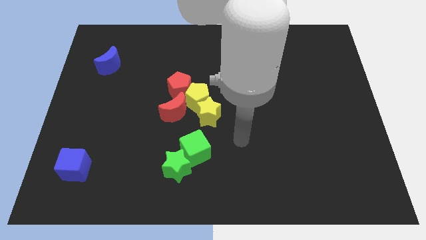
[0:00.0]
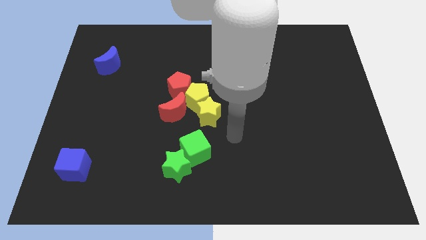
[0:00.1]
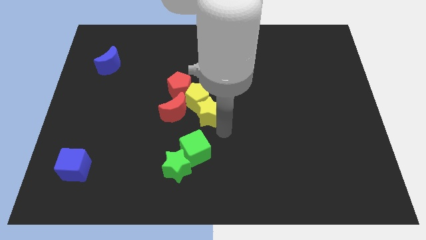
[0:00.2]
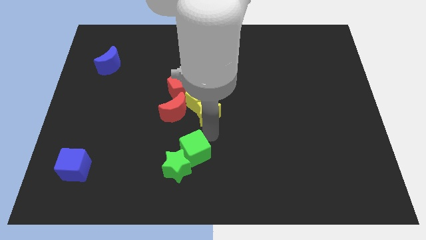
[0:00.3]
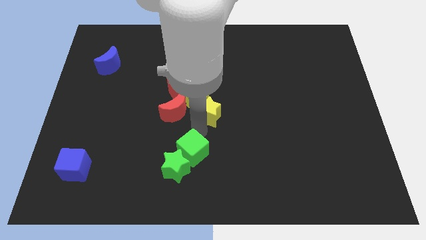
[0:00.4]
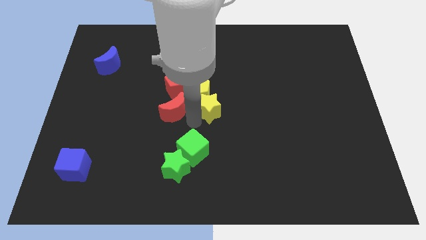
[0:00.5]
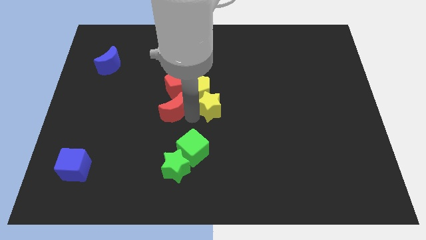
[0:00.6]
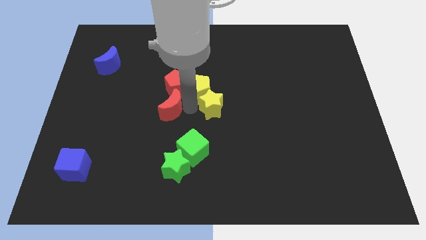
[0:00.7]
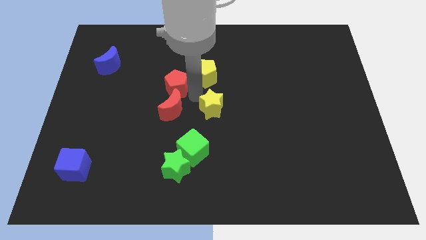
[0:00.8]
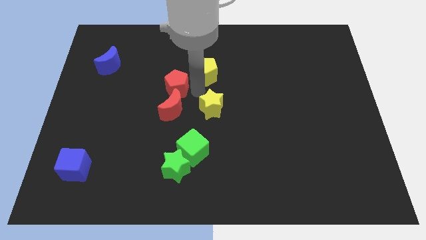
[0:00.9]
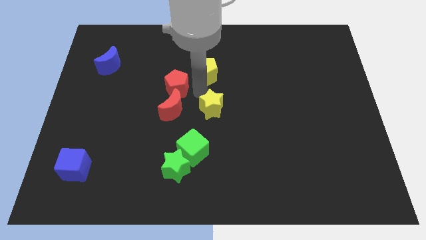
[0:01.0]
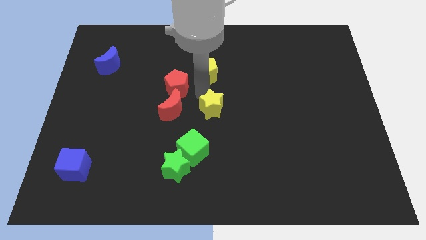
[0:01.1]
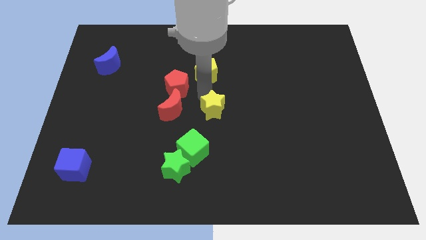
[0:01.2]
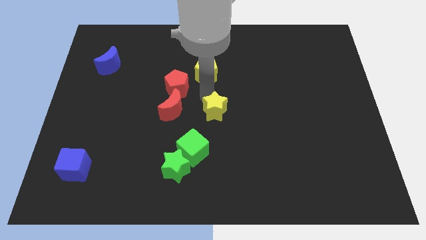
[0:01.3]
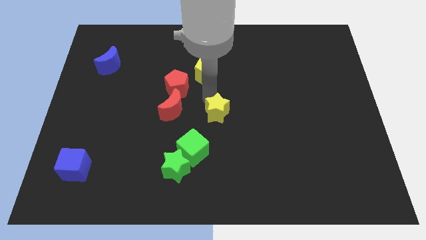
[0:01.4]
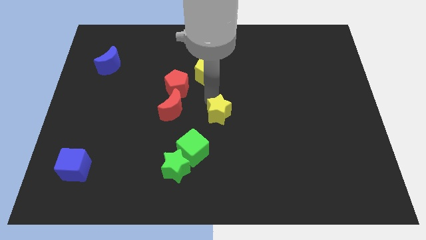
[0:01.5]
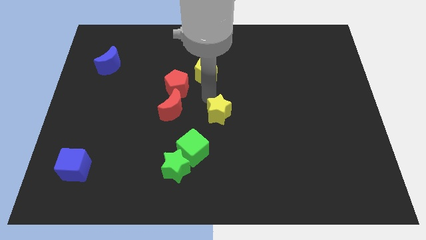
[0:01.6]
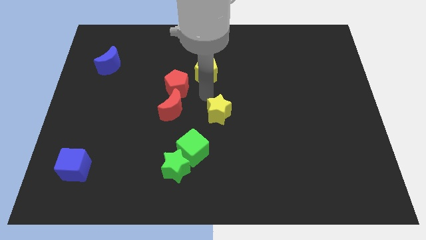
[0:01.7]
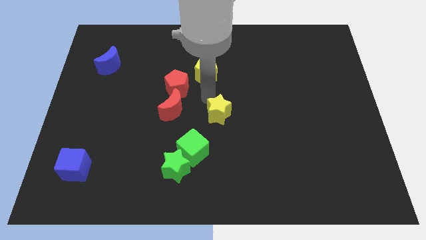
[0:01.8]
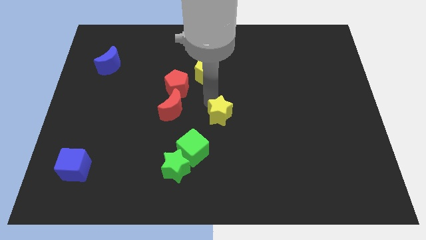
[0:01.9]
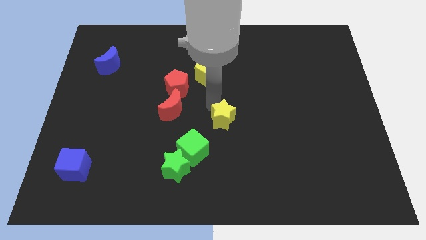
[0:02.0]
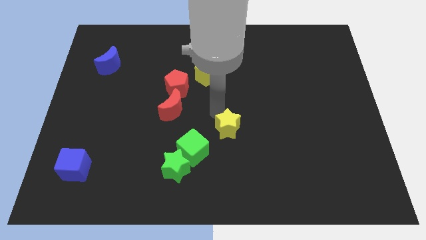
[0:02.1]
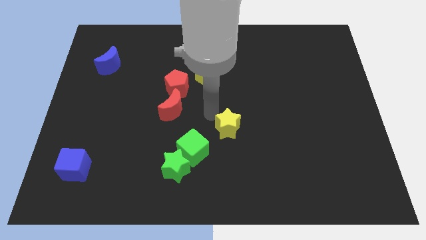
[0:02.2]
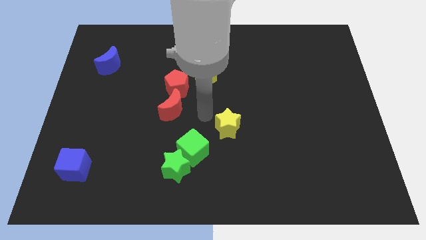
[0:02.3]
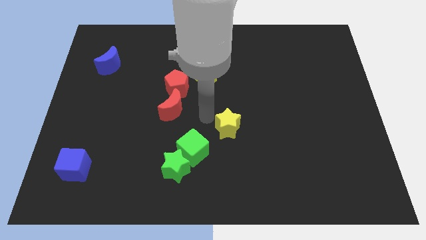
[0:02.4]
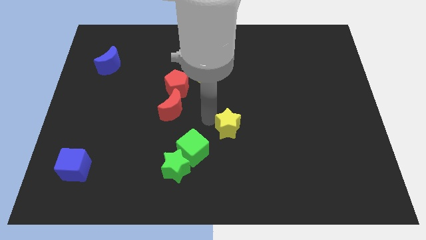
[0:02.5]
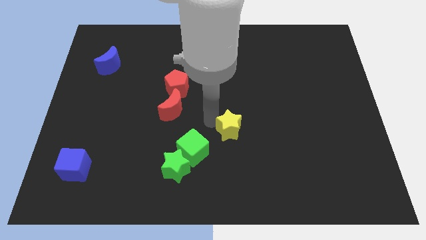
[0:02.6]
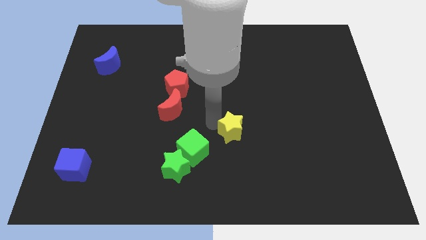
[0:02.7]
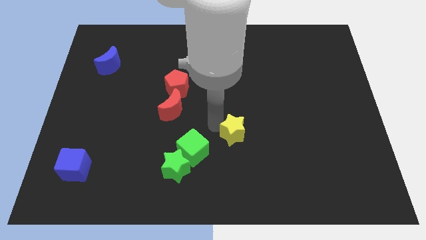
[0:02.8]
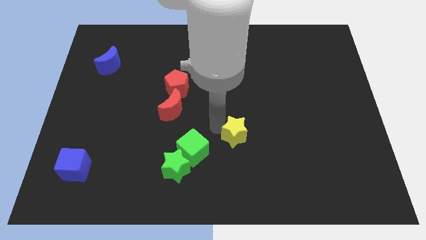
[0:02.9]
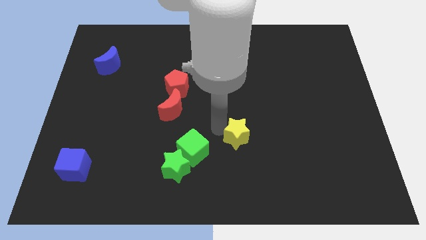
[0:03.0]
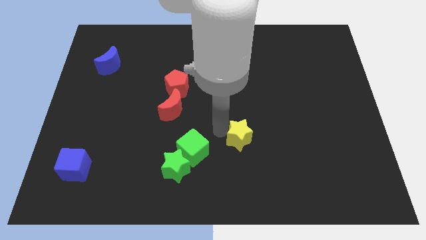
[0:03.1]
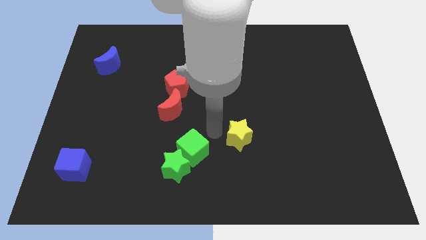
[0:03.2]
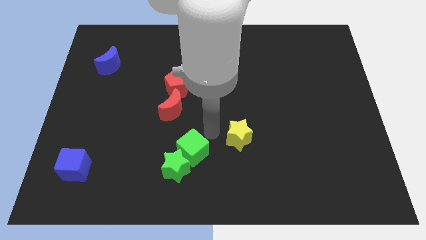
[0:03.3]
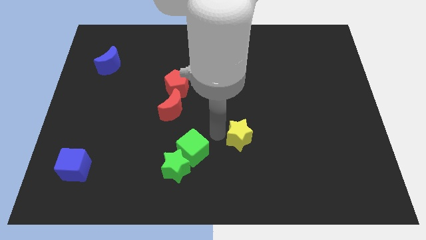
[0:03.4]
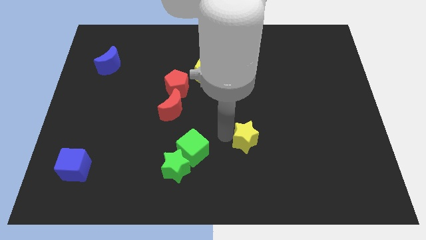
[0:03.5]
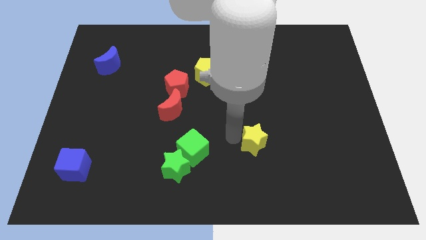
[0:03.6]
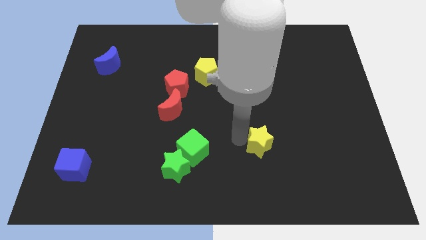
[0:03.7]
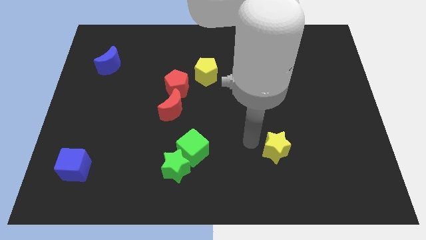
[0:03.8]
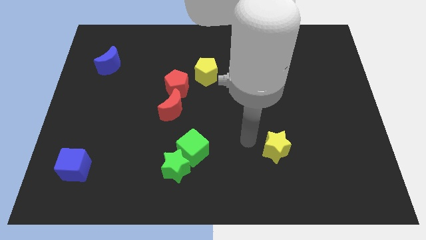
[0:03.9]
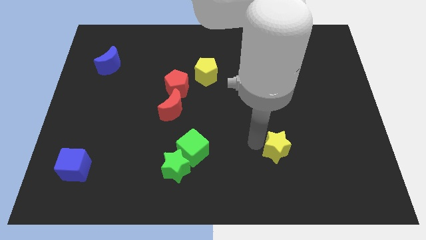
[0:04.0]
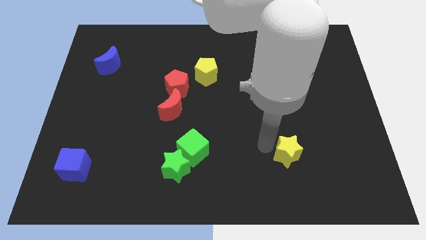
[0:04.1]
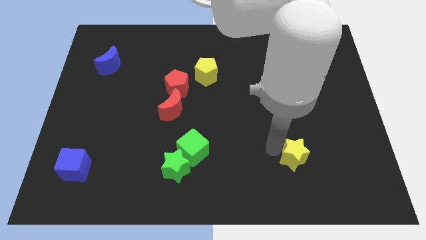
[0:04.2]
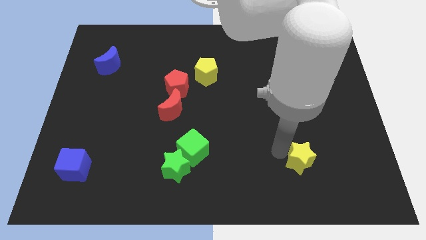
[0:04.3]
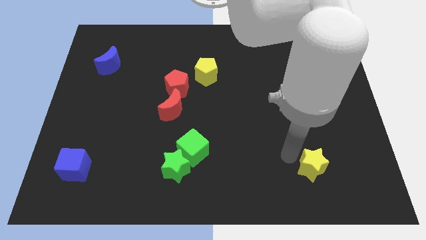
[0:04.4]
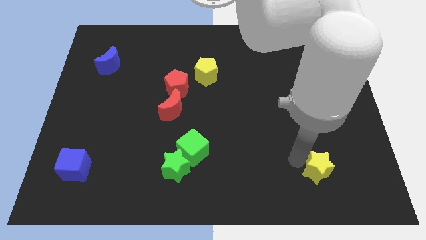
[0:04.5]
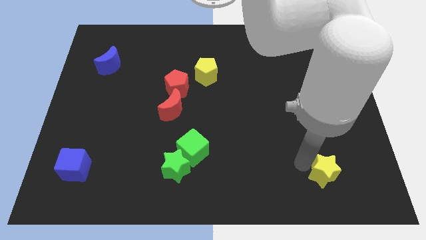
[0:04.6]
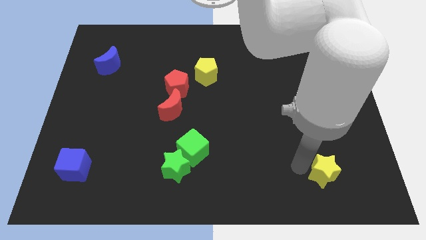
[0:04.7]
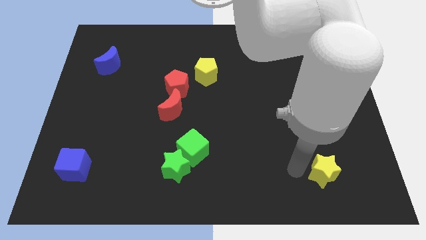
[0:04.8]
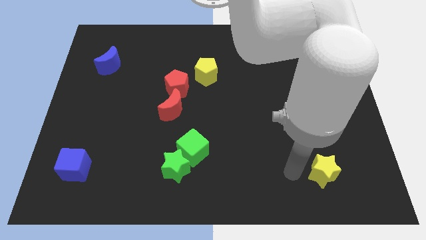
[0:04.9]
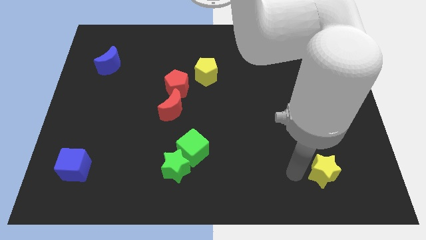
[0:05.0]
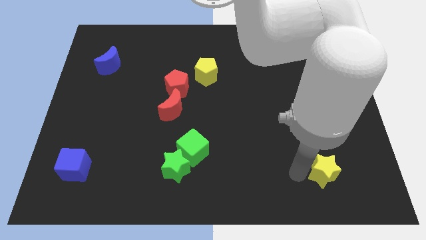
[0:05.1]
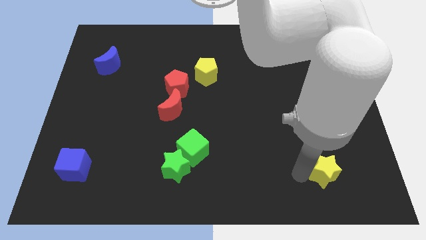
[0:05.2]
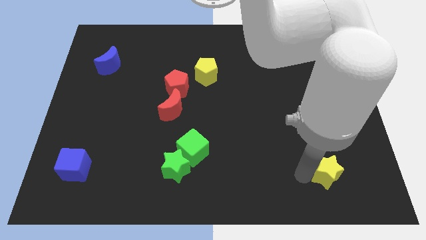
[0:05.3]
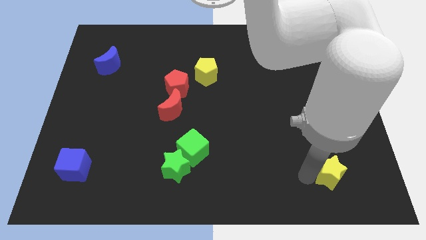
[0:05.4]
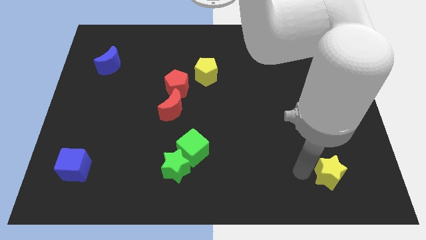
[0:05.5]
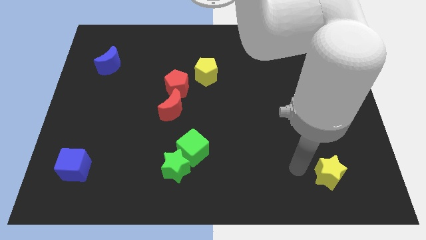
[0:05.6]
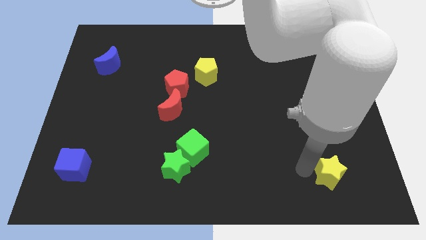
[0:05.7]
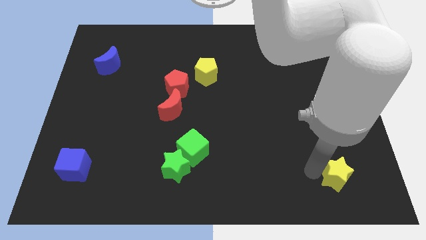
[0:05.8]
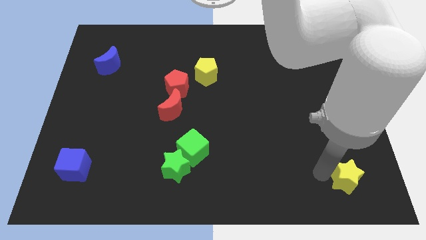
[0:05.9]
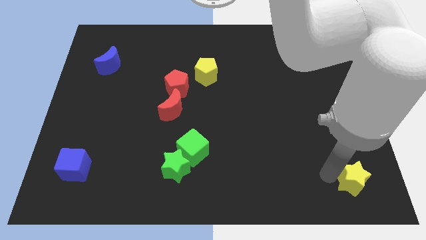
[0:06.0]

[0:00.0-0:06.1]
move the yellow star to the bottom right of the board

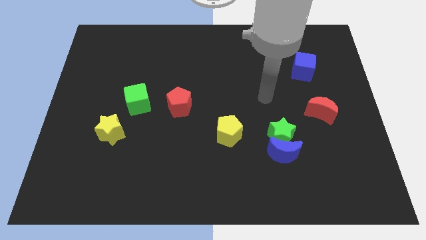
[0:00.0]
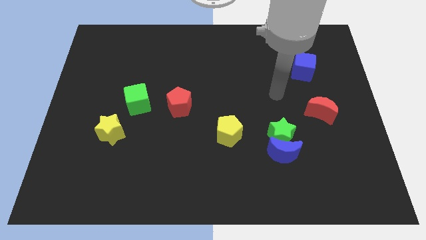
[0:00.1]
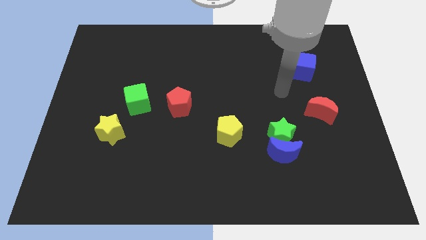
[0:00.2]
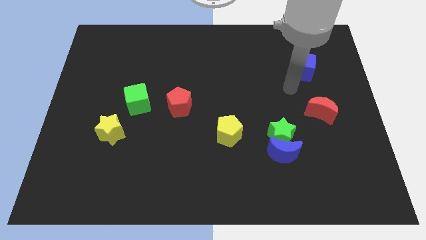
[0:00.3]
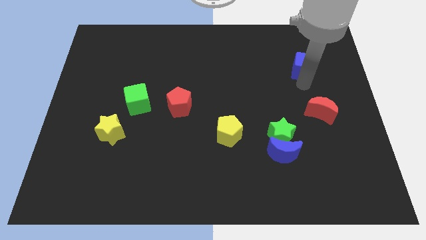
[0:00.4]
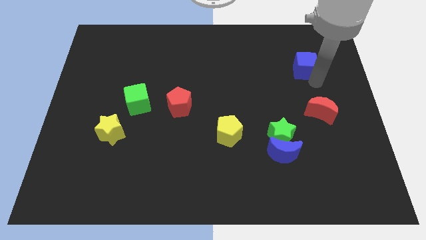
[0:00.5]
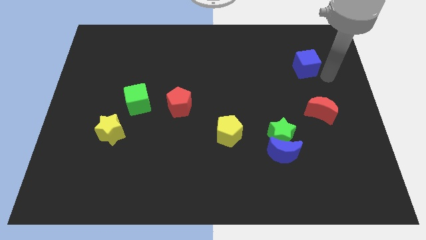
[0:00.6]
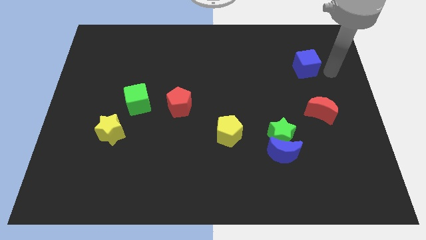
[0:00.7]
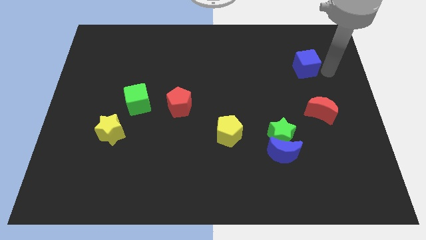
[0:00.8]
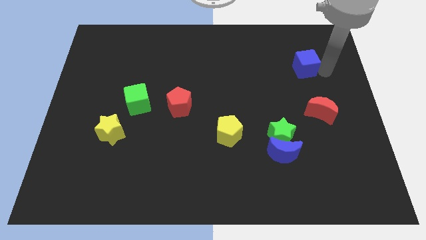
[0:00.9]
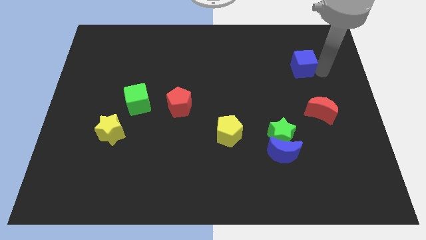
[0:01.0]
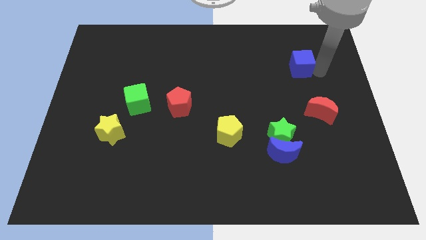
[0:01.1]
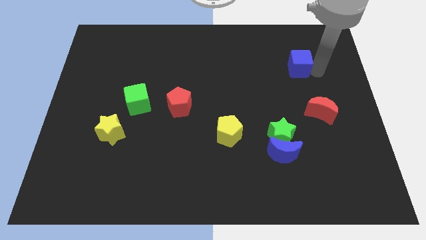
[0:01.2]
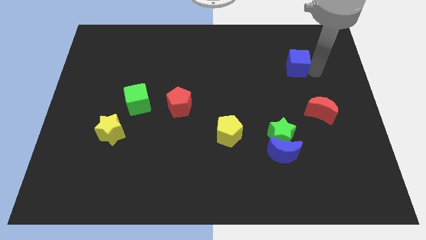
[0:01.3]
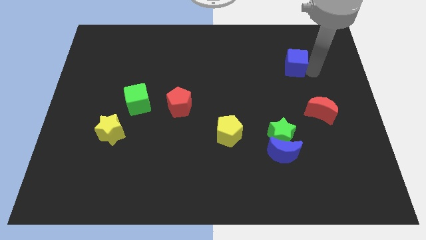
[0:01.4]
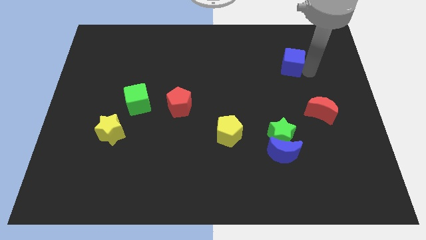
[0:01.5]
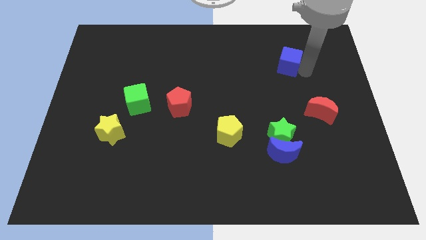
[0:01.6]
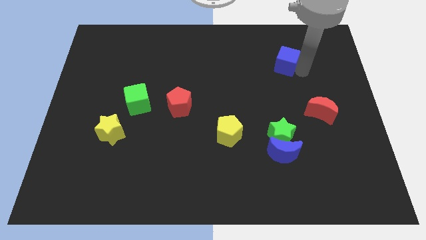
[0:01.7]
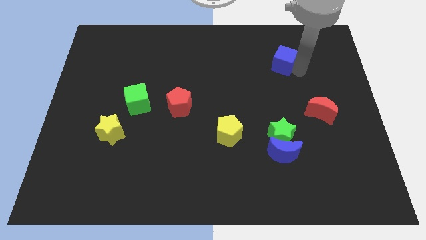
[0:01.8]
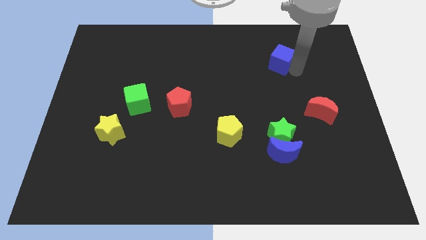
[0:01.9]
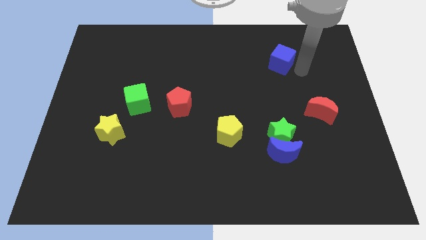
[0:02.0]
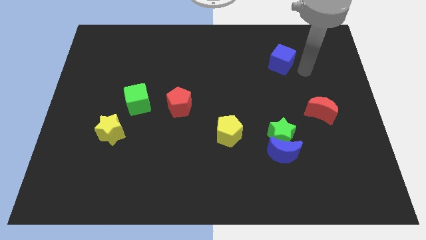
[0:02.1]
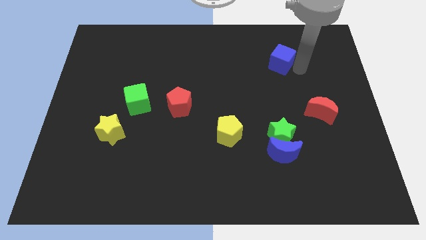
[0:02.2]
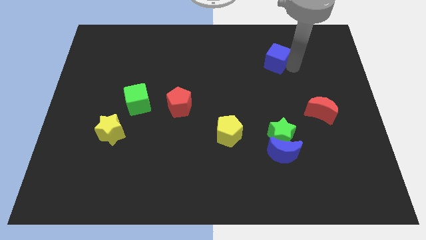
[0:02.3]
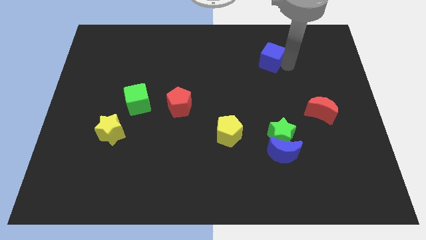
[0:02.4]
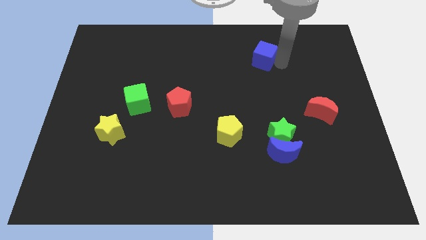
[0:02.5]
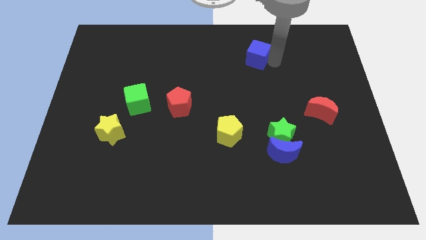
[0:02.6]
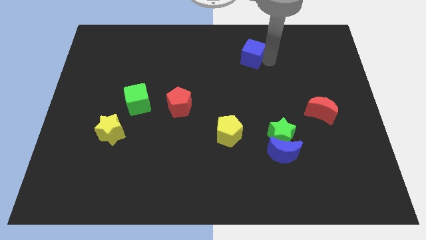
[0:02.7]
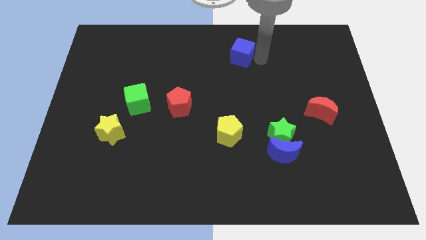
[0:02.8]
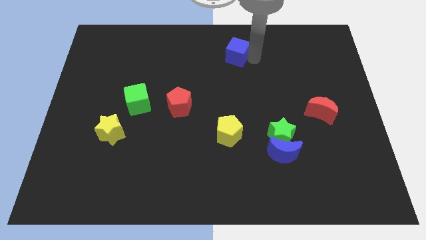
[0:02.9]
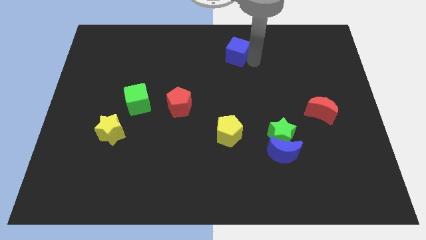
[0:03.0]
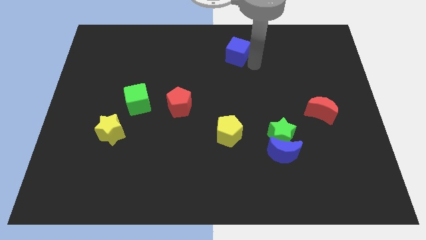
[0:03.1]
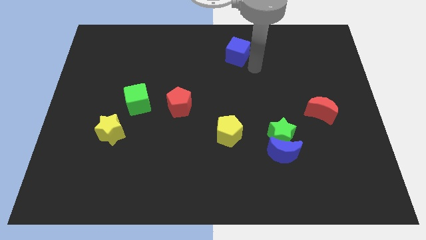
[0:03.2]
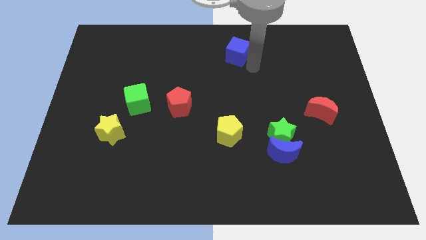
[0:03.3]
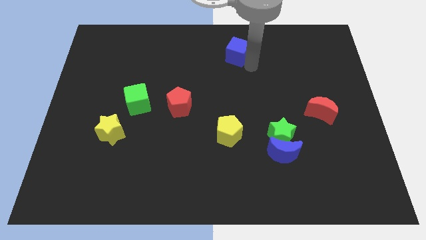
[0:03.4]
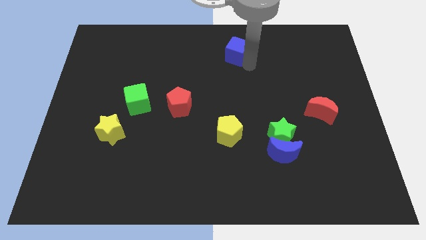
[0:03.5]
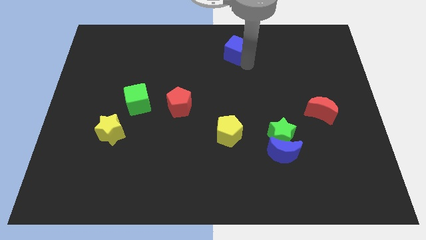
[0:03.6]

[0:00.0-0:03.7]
slide the blue cube to the top
